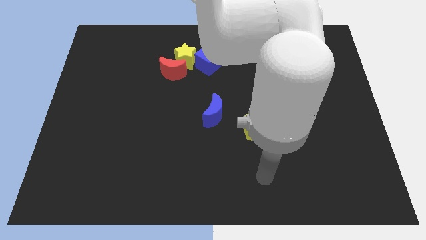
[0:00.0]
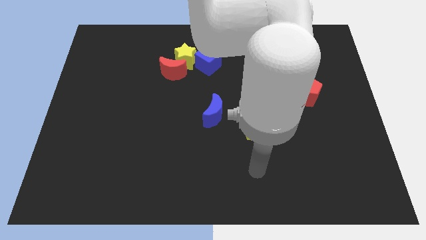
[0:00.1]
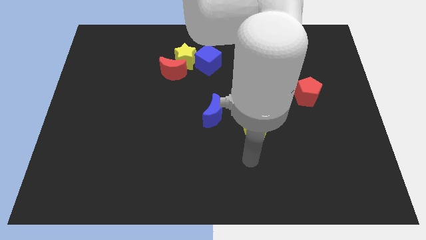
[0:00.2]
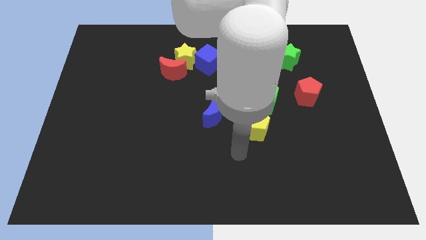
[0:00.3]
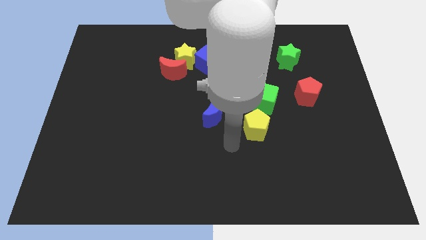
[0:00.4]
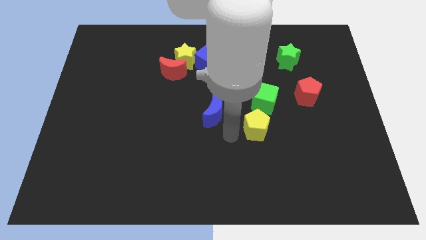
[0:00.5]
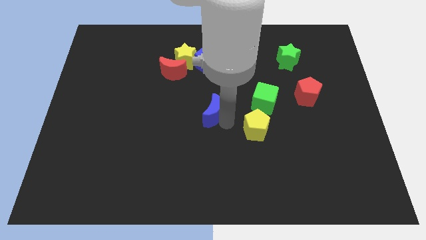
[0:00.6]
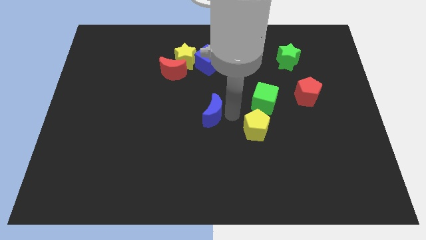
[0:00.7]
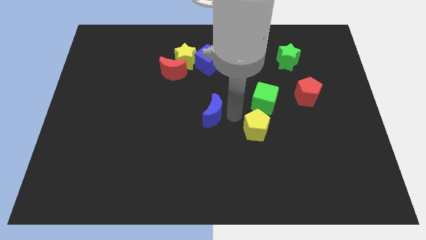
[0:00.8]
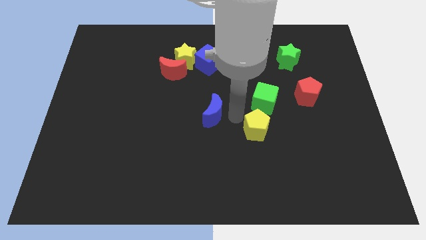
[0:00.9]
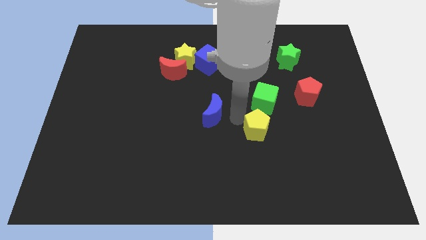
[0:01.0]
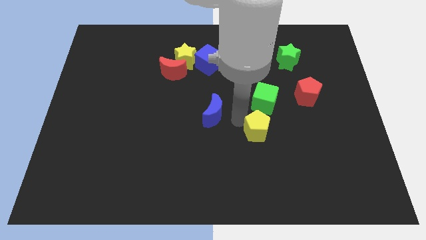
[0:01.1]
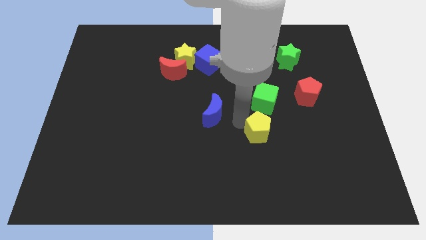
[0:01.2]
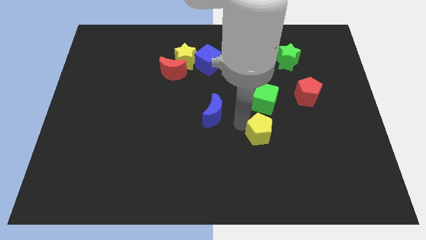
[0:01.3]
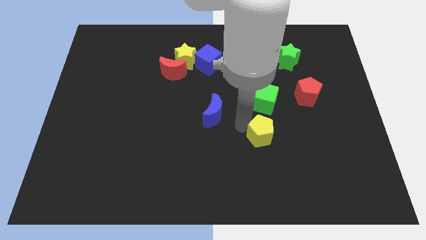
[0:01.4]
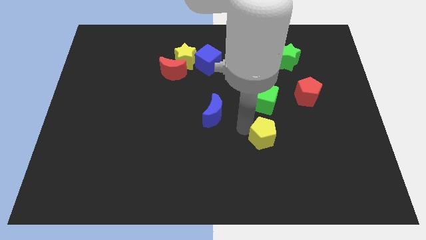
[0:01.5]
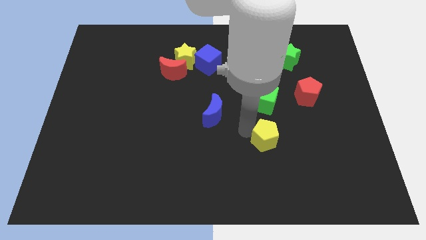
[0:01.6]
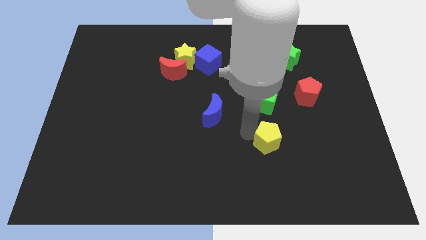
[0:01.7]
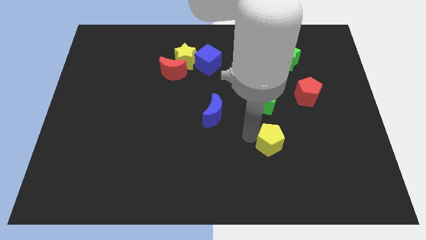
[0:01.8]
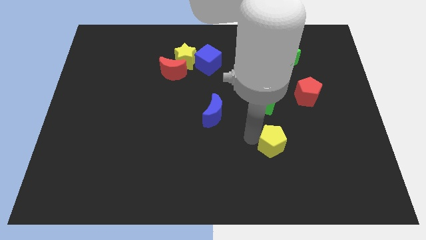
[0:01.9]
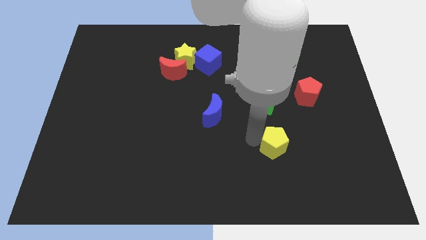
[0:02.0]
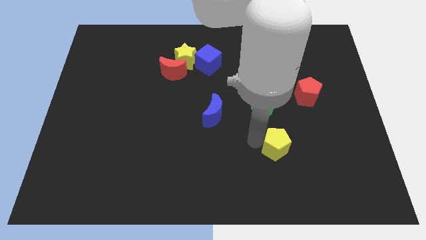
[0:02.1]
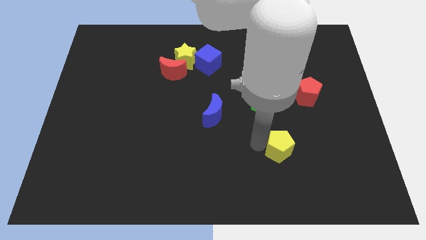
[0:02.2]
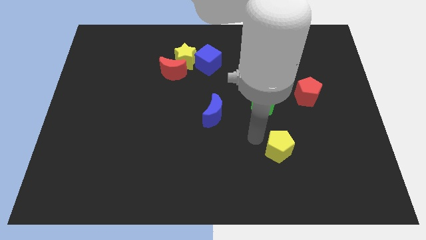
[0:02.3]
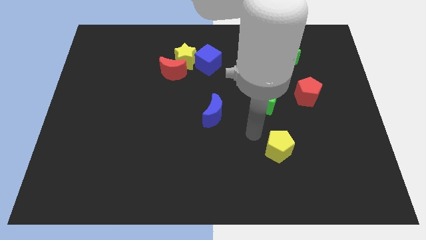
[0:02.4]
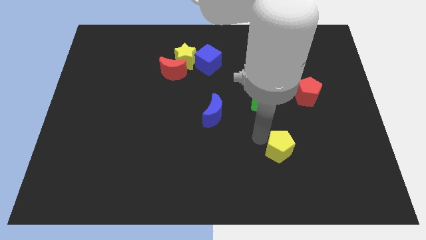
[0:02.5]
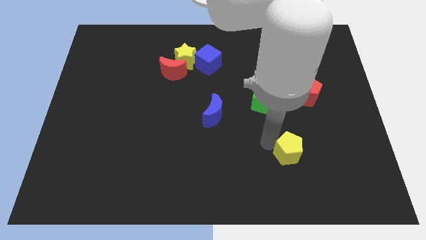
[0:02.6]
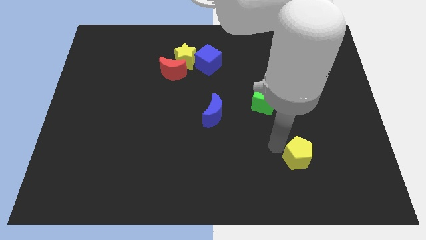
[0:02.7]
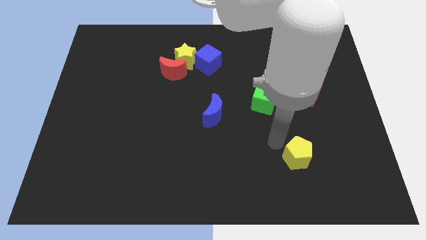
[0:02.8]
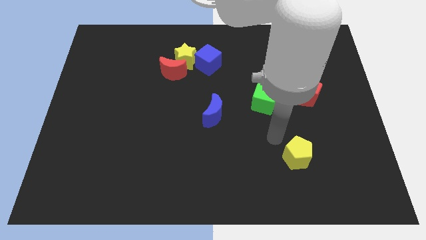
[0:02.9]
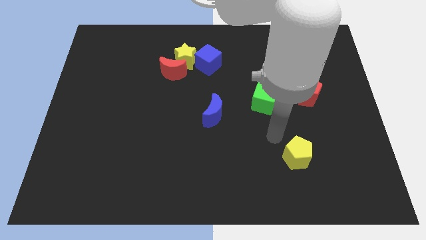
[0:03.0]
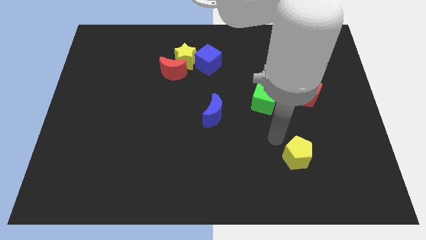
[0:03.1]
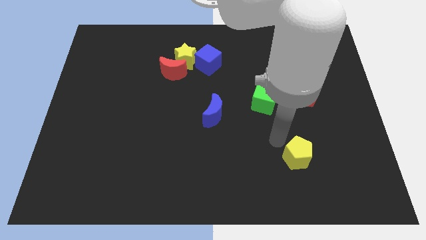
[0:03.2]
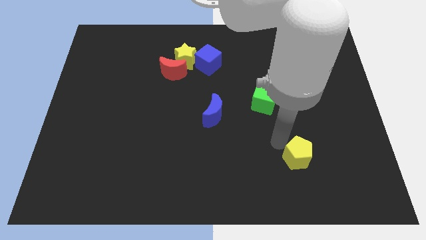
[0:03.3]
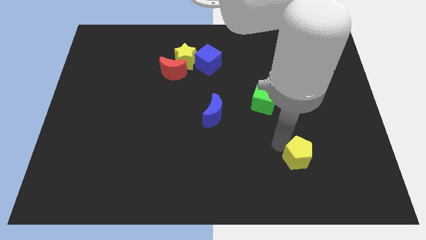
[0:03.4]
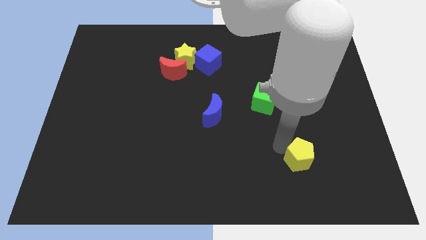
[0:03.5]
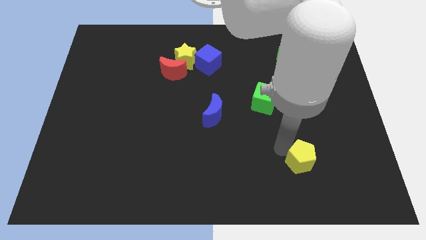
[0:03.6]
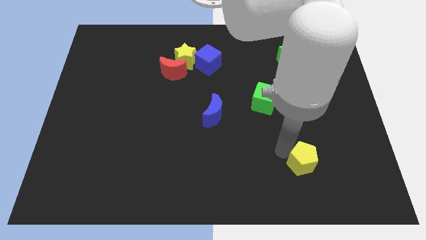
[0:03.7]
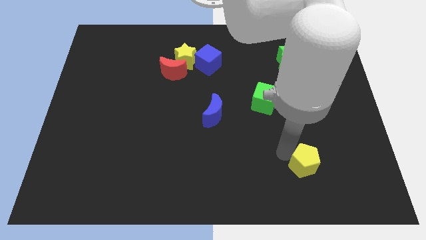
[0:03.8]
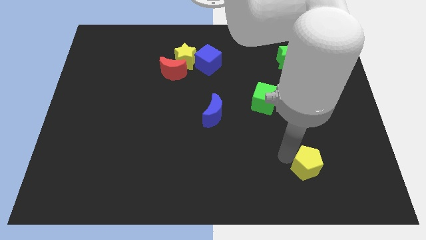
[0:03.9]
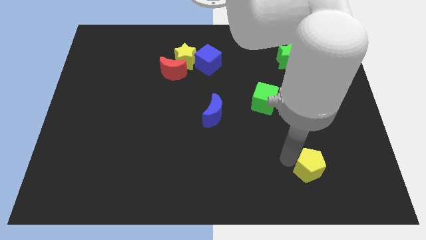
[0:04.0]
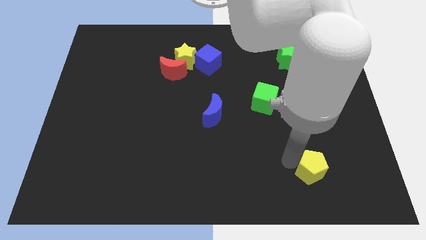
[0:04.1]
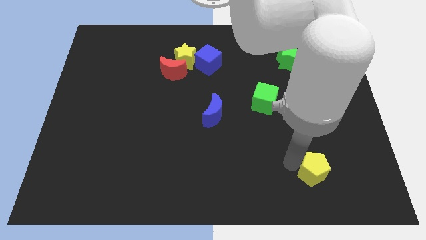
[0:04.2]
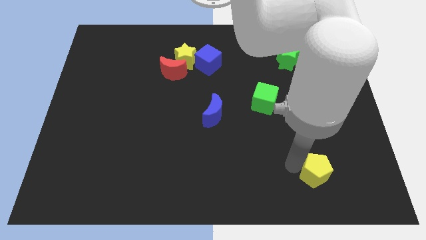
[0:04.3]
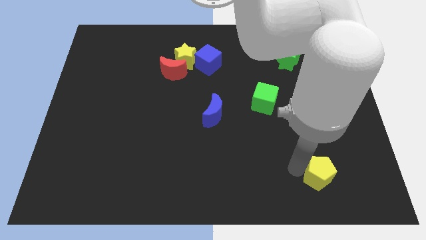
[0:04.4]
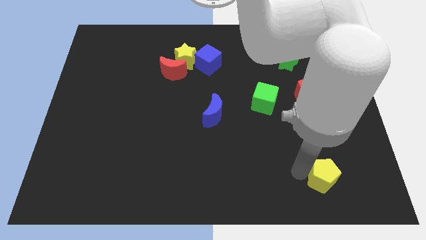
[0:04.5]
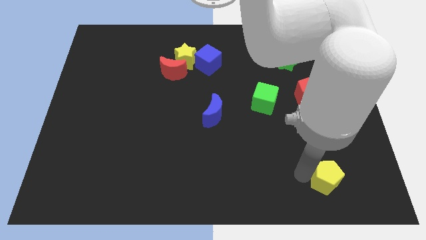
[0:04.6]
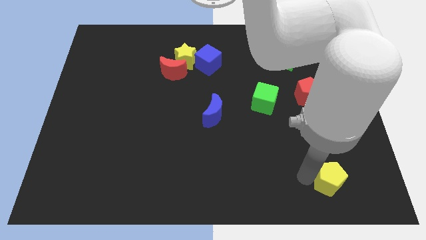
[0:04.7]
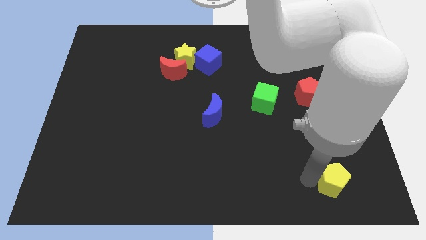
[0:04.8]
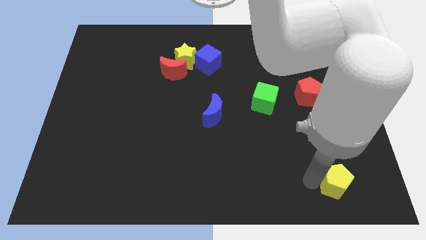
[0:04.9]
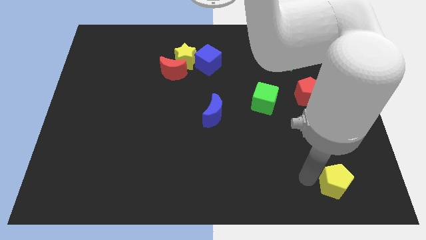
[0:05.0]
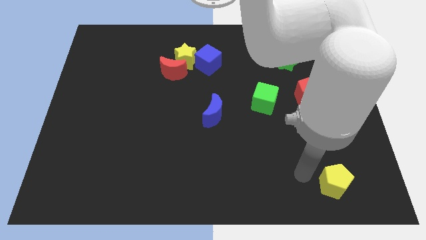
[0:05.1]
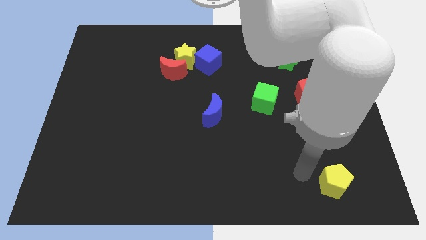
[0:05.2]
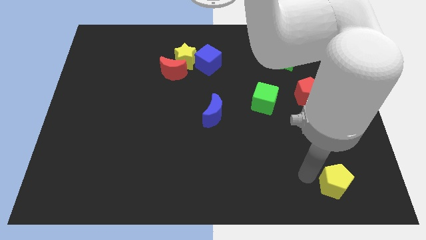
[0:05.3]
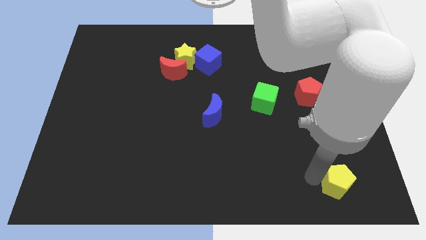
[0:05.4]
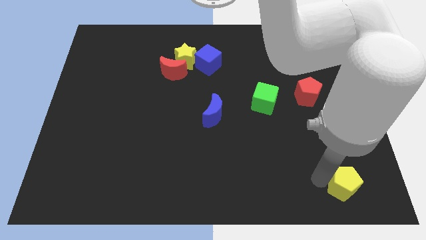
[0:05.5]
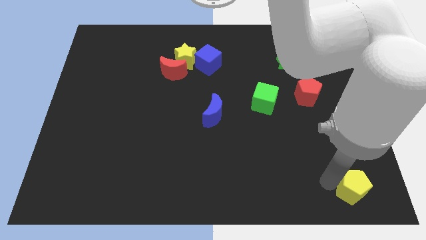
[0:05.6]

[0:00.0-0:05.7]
slide the yellow pentagon to the bottom right of the board
